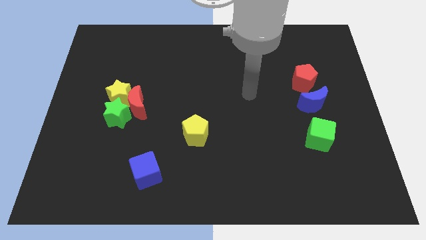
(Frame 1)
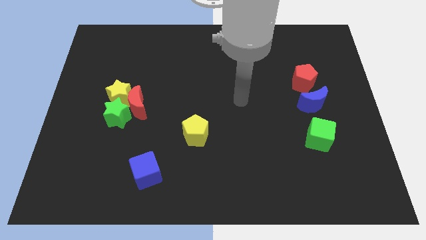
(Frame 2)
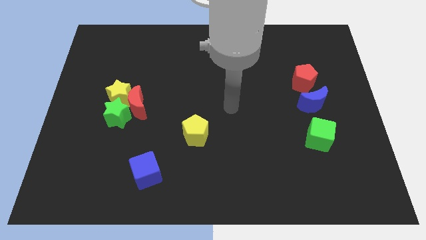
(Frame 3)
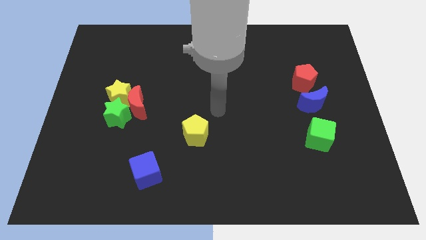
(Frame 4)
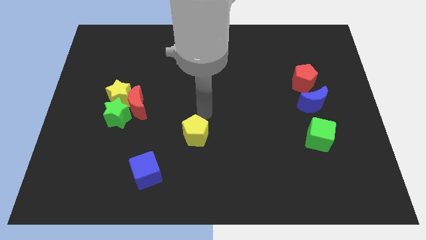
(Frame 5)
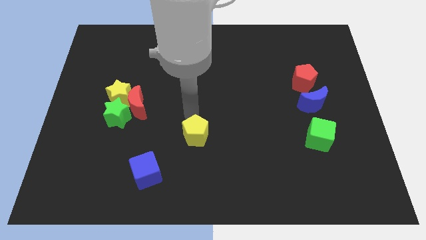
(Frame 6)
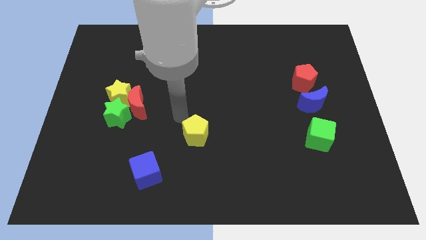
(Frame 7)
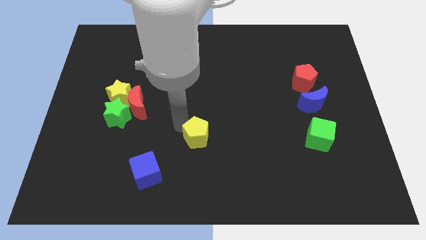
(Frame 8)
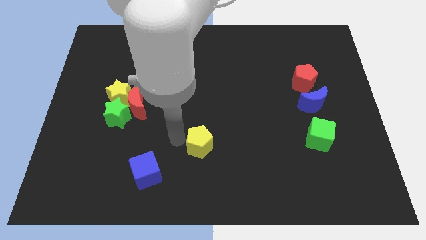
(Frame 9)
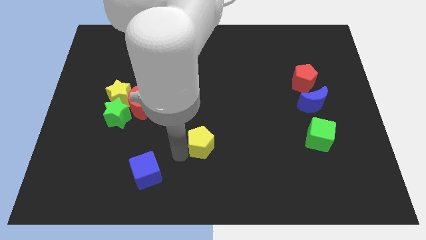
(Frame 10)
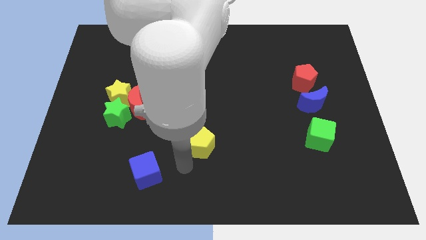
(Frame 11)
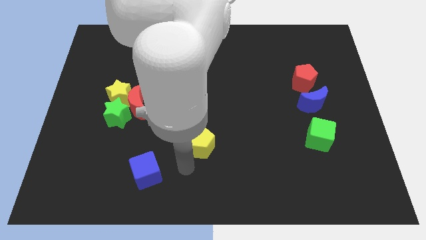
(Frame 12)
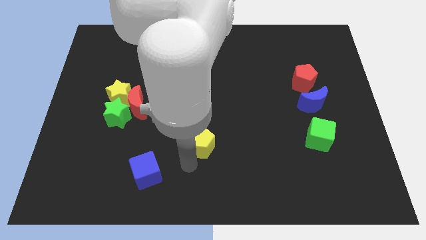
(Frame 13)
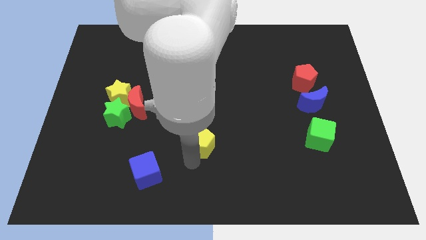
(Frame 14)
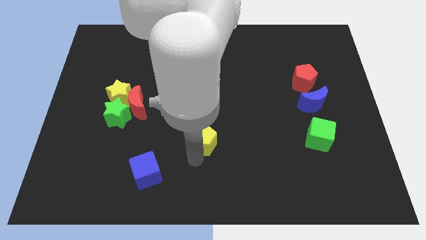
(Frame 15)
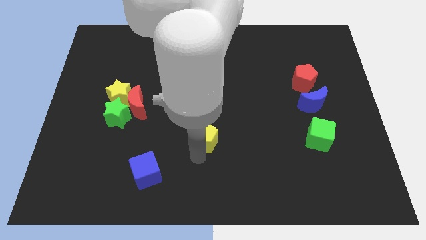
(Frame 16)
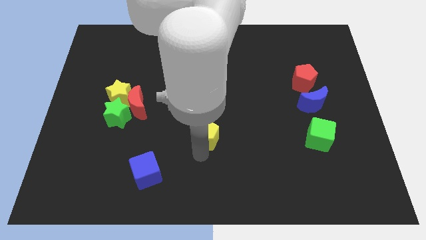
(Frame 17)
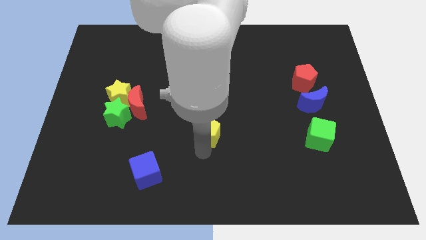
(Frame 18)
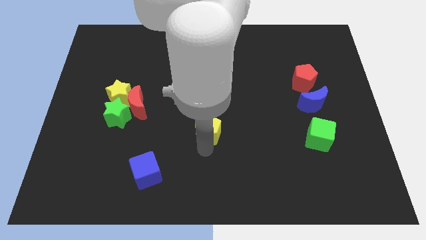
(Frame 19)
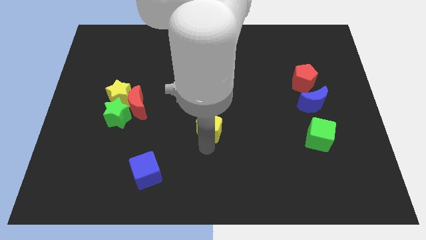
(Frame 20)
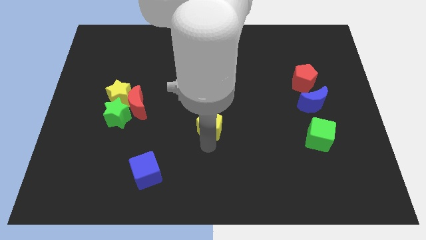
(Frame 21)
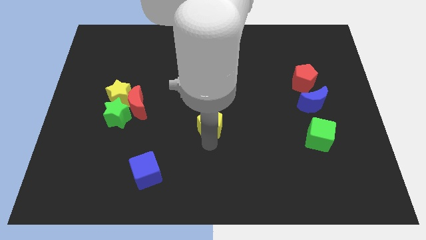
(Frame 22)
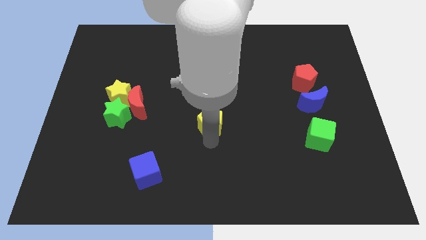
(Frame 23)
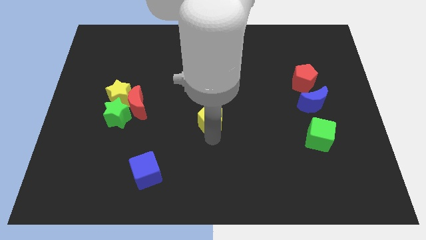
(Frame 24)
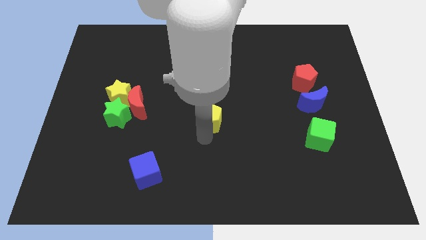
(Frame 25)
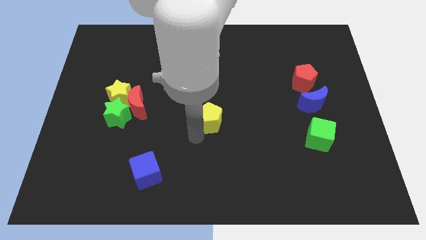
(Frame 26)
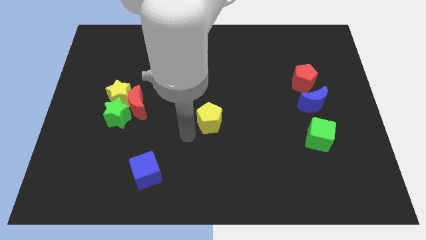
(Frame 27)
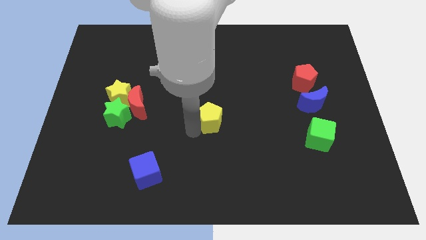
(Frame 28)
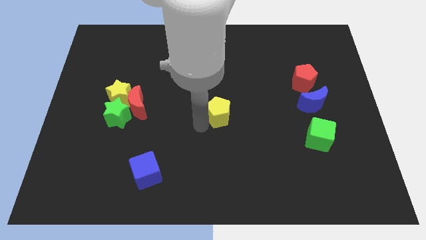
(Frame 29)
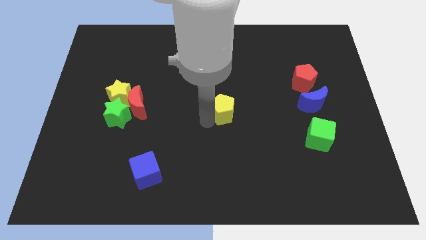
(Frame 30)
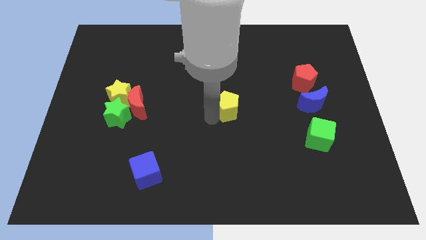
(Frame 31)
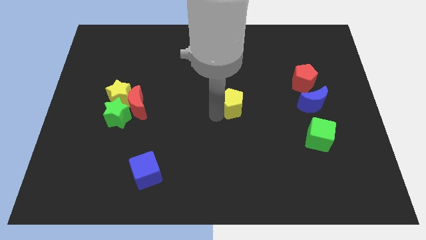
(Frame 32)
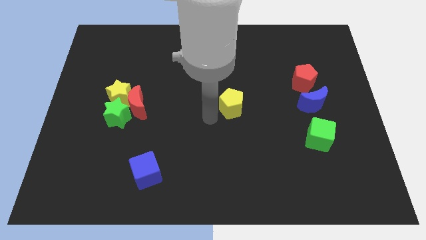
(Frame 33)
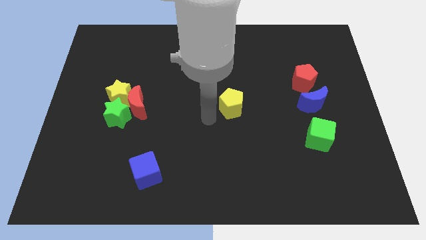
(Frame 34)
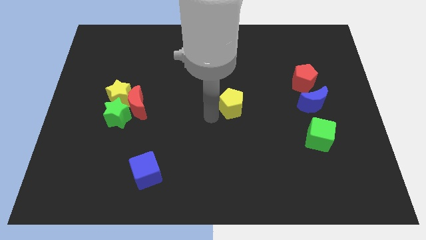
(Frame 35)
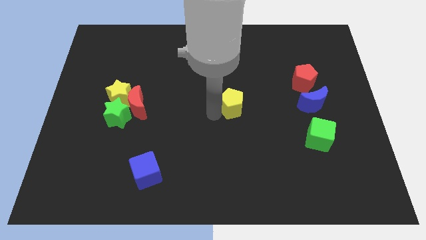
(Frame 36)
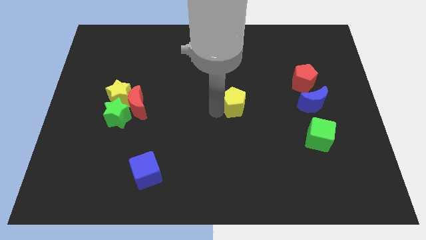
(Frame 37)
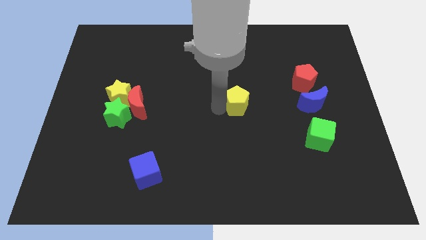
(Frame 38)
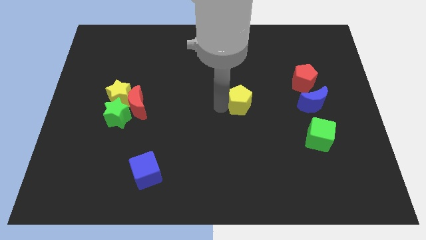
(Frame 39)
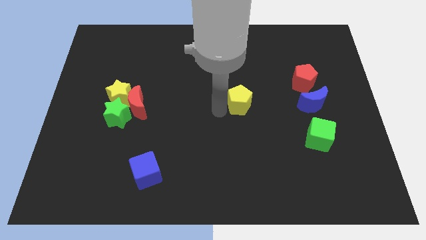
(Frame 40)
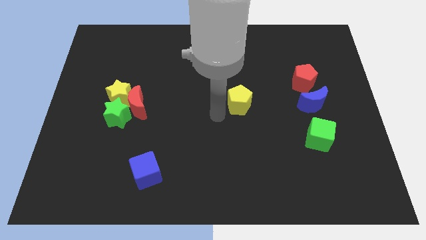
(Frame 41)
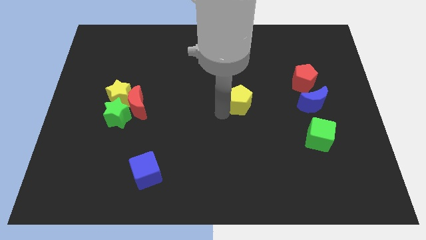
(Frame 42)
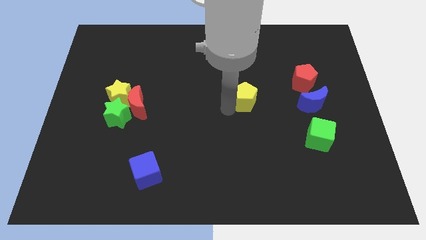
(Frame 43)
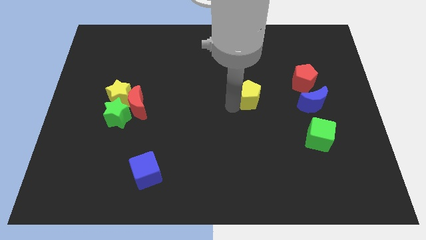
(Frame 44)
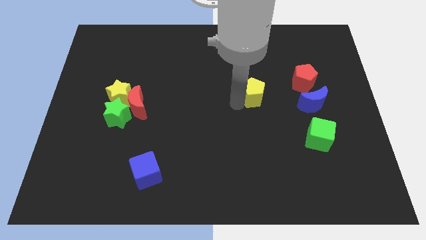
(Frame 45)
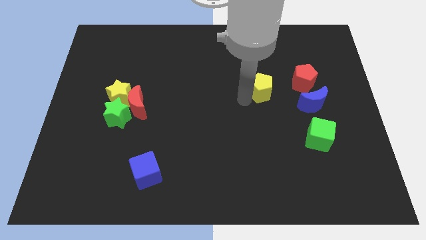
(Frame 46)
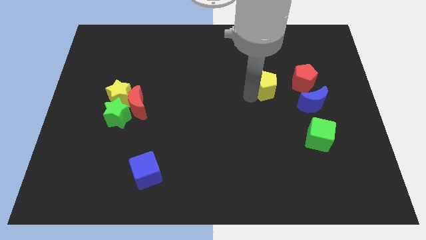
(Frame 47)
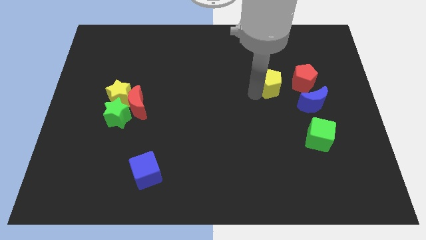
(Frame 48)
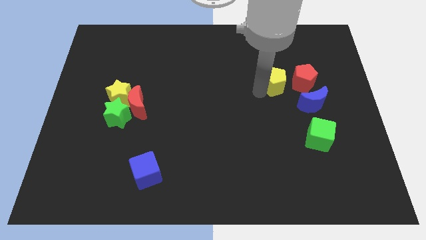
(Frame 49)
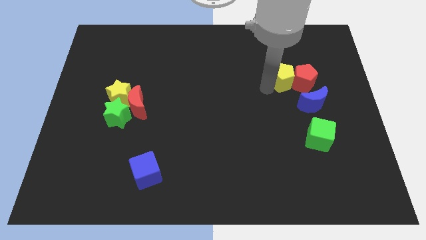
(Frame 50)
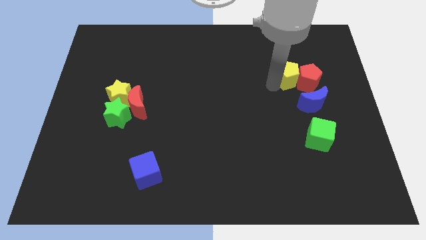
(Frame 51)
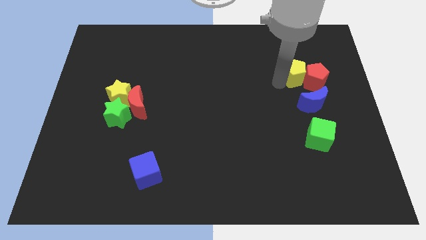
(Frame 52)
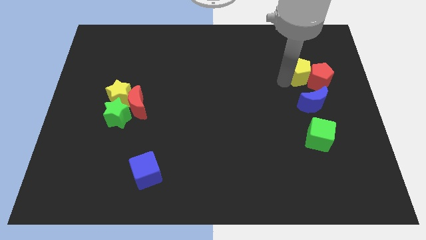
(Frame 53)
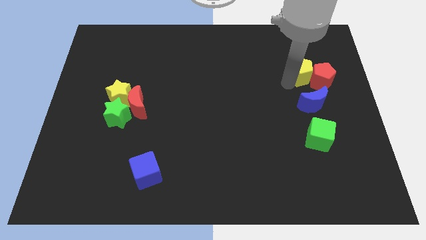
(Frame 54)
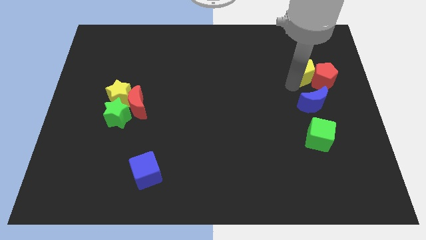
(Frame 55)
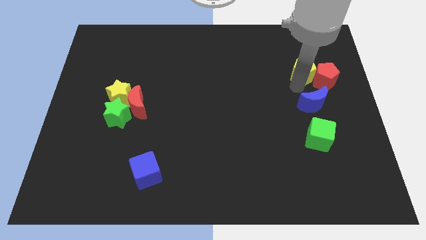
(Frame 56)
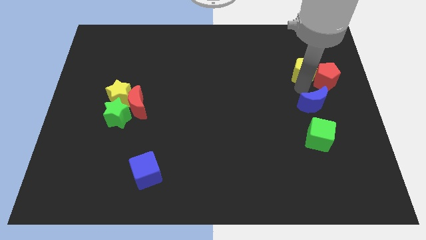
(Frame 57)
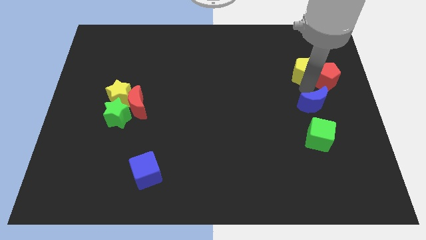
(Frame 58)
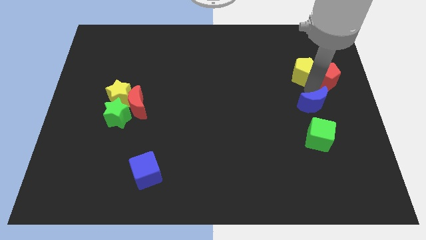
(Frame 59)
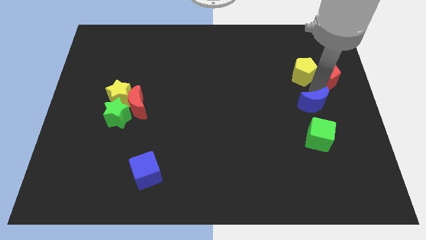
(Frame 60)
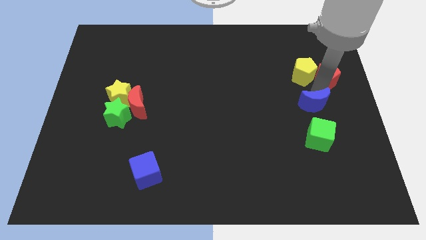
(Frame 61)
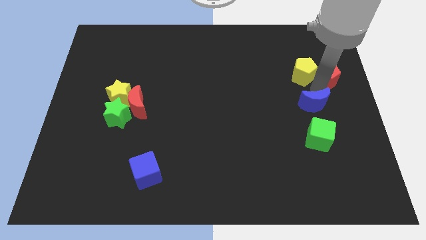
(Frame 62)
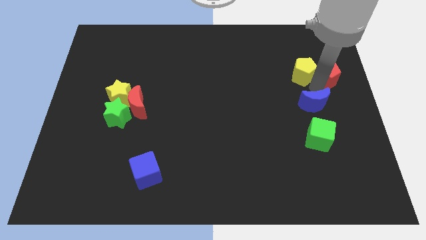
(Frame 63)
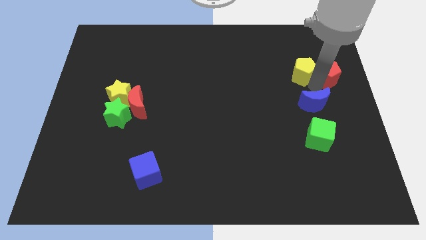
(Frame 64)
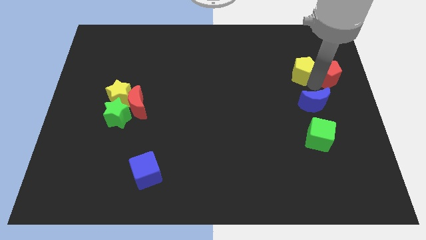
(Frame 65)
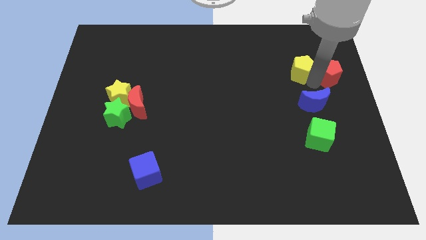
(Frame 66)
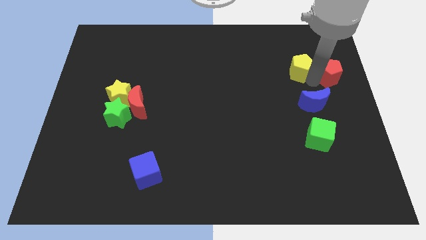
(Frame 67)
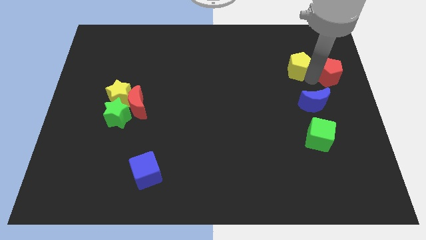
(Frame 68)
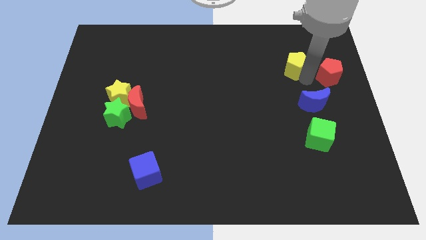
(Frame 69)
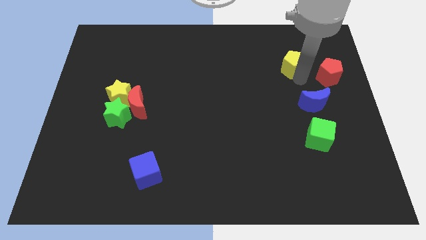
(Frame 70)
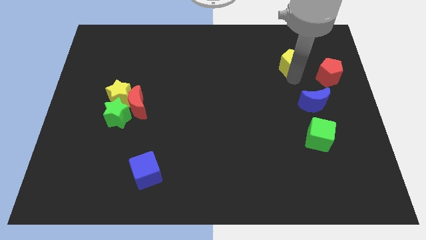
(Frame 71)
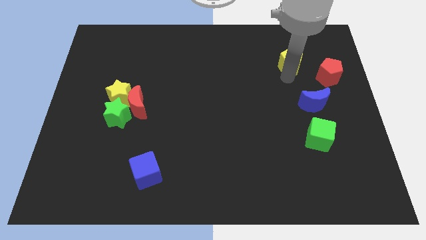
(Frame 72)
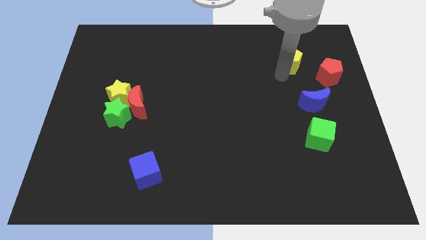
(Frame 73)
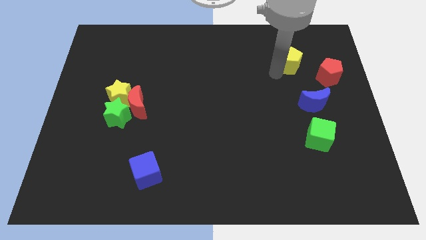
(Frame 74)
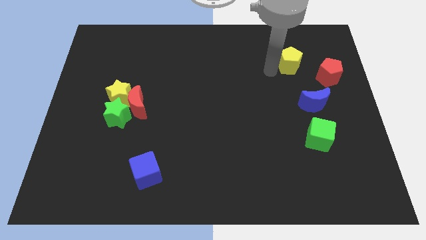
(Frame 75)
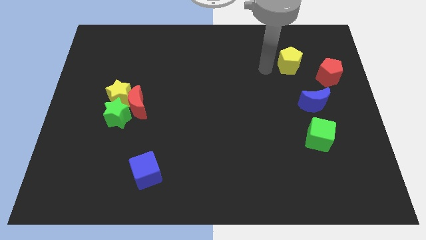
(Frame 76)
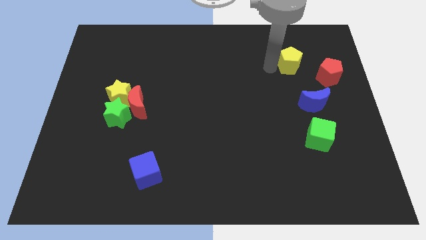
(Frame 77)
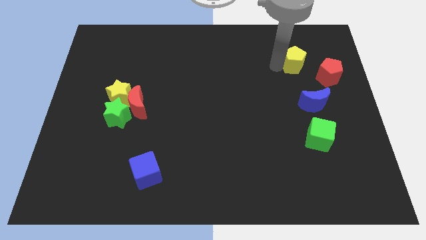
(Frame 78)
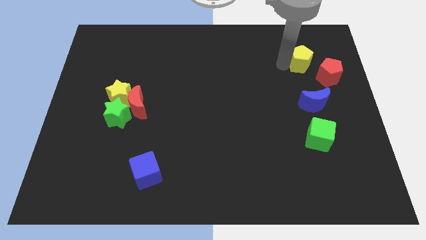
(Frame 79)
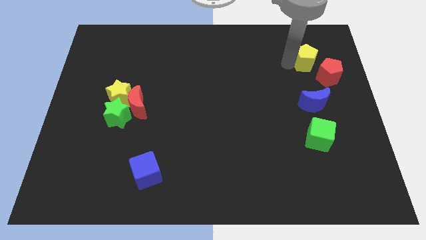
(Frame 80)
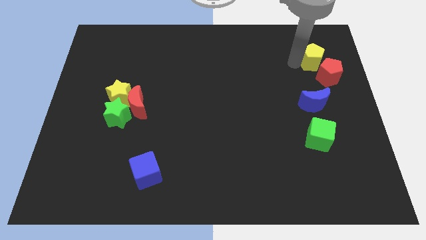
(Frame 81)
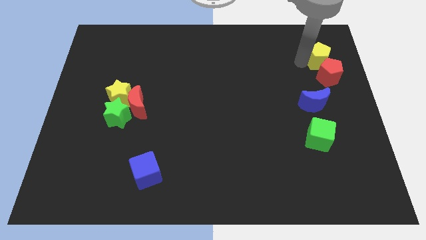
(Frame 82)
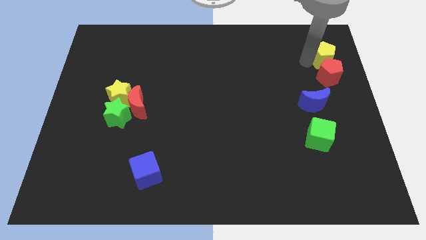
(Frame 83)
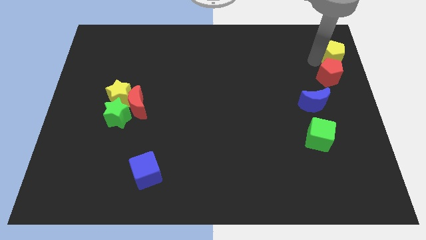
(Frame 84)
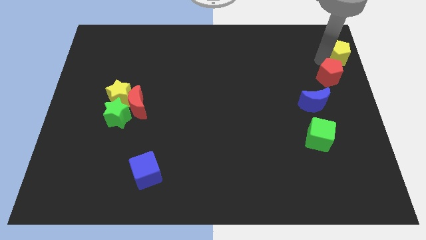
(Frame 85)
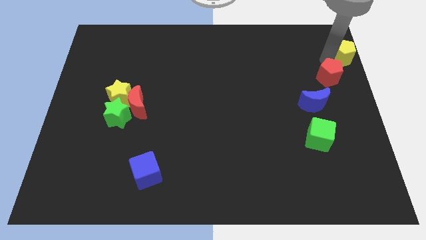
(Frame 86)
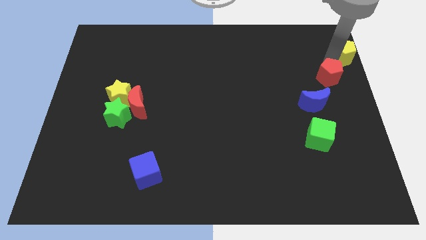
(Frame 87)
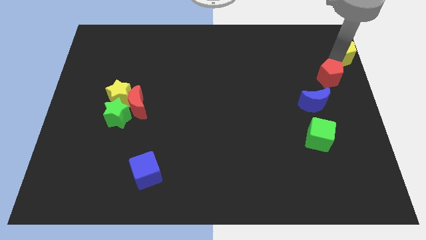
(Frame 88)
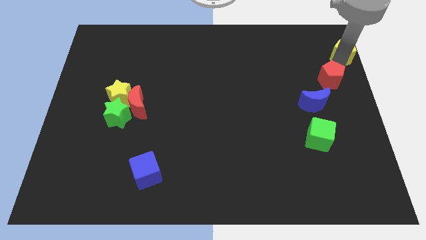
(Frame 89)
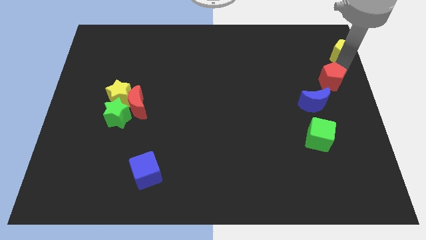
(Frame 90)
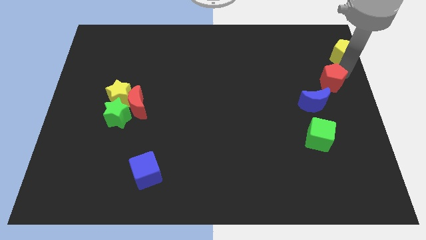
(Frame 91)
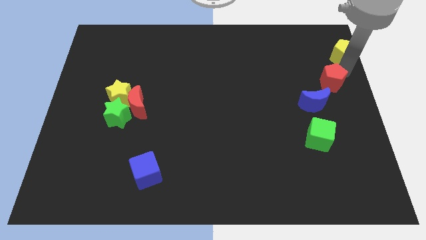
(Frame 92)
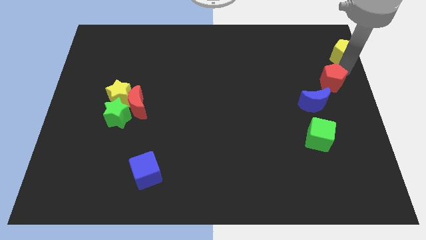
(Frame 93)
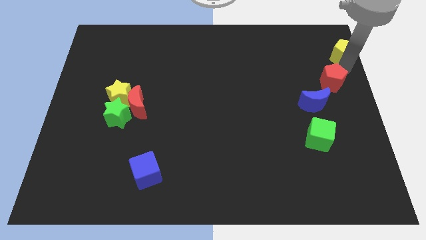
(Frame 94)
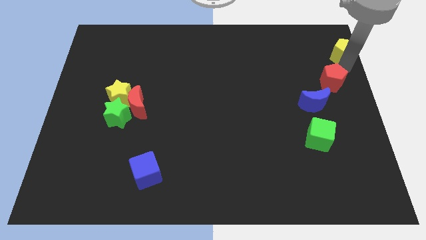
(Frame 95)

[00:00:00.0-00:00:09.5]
slide the yellow pentagon to the upper right corner
